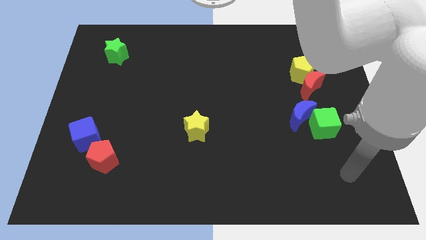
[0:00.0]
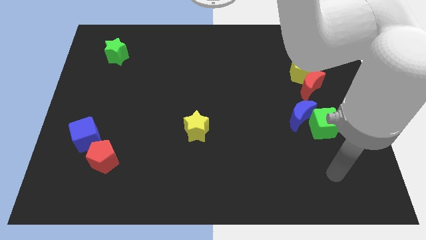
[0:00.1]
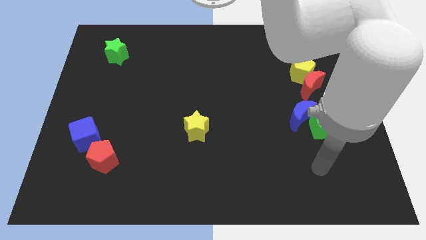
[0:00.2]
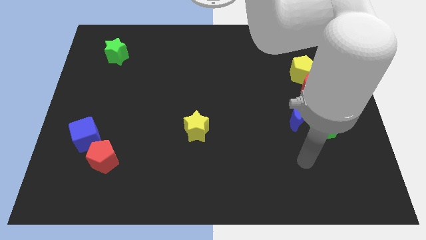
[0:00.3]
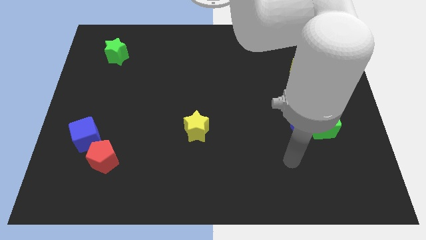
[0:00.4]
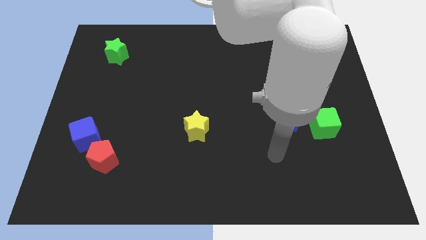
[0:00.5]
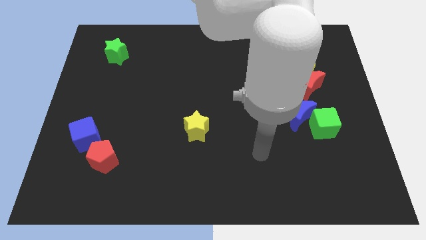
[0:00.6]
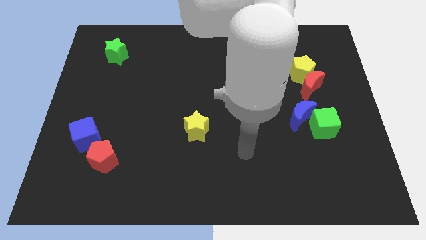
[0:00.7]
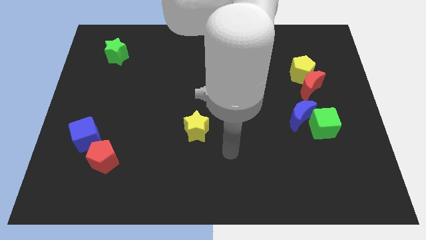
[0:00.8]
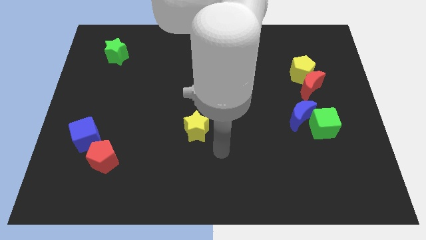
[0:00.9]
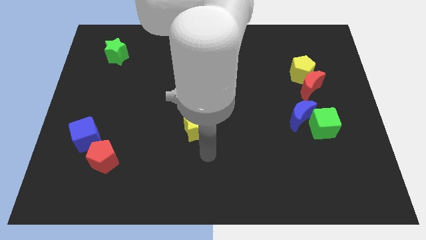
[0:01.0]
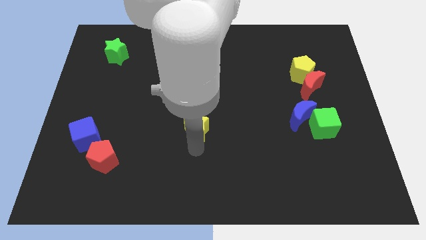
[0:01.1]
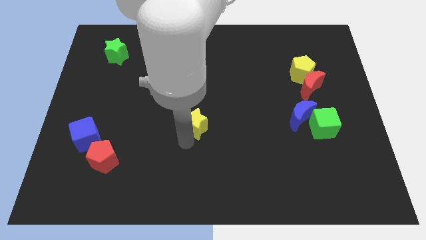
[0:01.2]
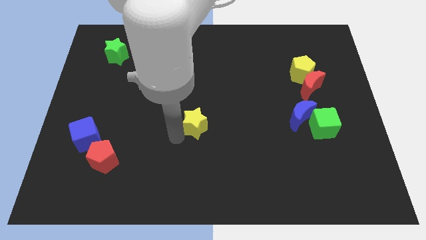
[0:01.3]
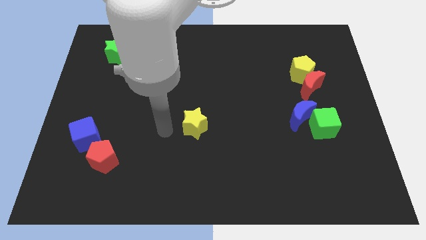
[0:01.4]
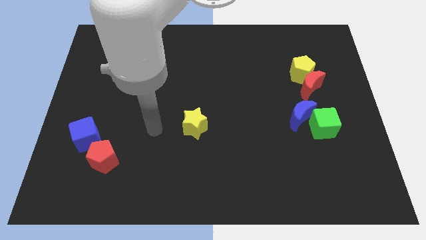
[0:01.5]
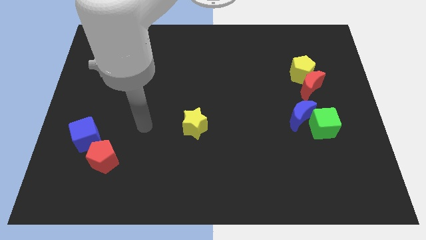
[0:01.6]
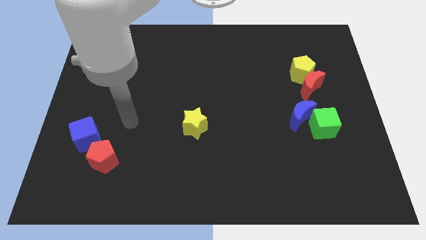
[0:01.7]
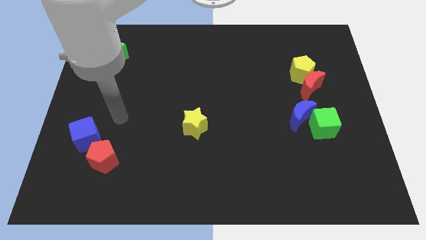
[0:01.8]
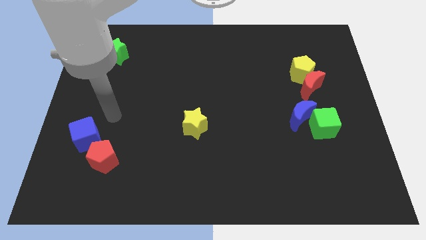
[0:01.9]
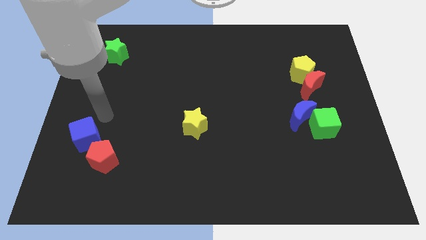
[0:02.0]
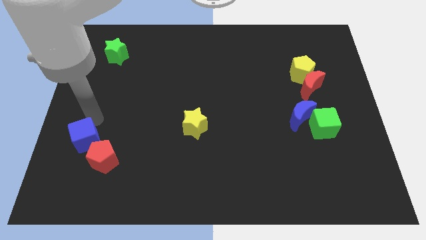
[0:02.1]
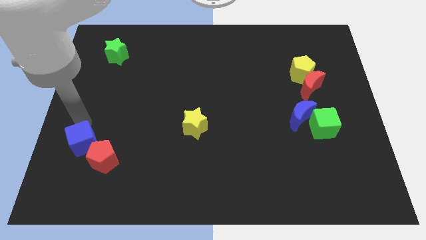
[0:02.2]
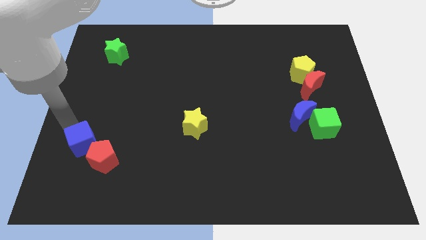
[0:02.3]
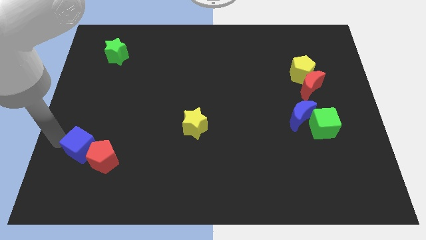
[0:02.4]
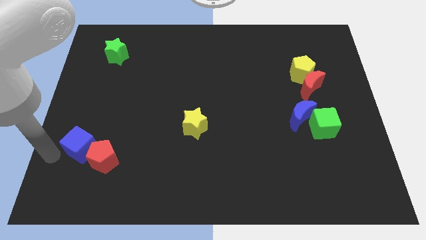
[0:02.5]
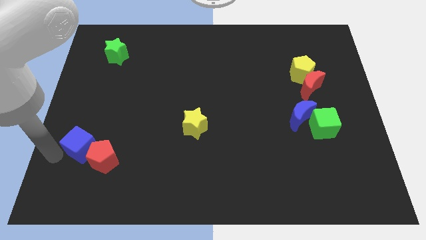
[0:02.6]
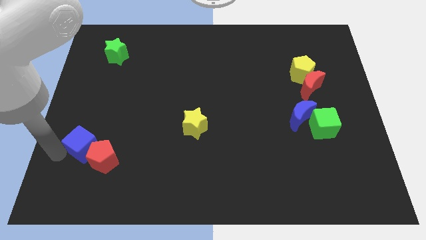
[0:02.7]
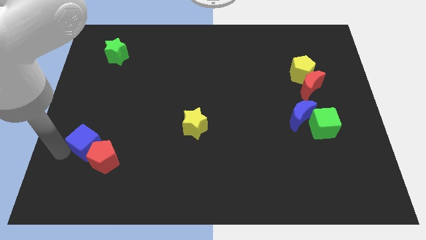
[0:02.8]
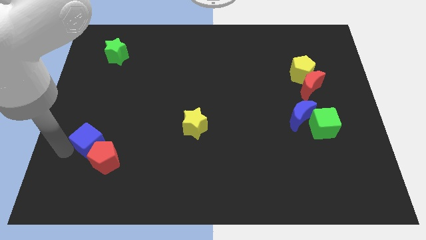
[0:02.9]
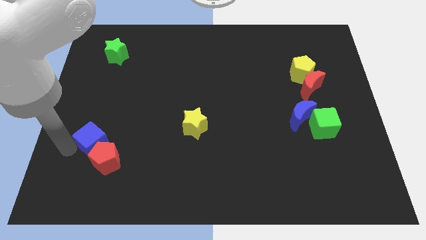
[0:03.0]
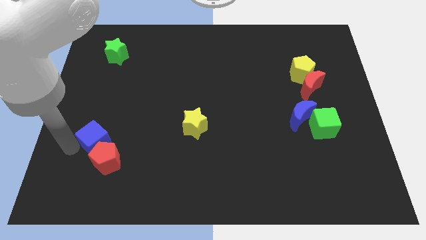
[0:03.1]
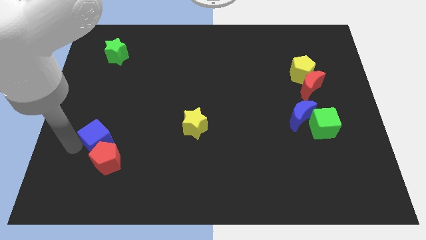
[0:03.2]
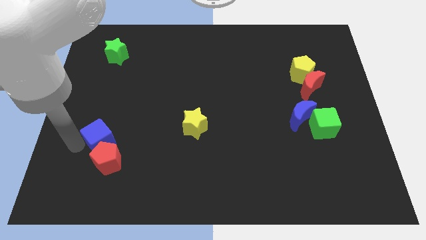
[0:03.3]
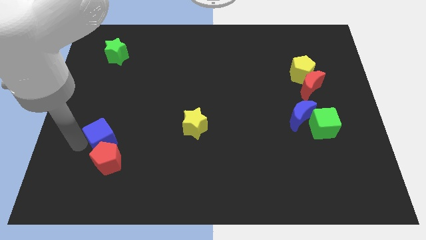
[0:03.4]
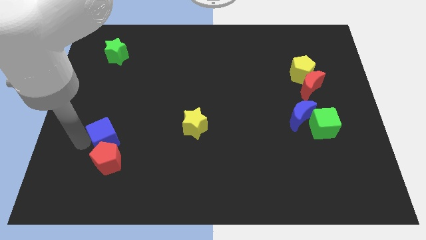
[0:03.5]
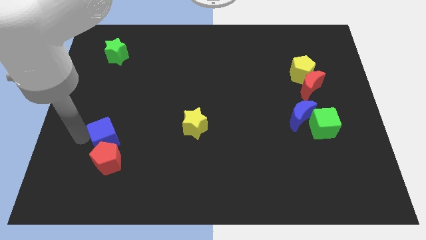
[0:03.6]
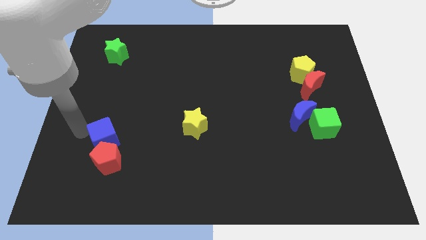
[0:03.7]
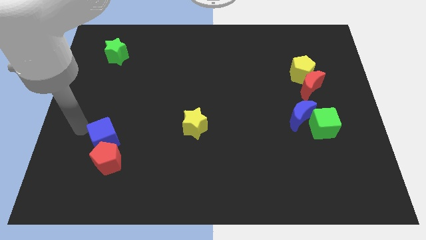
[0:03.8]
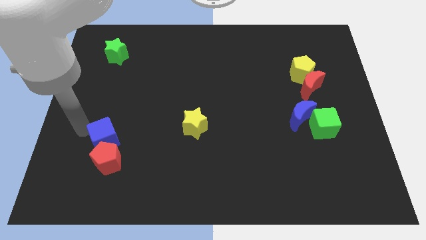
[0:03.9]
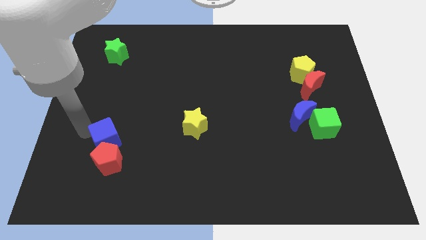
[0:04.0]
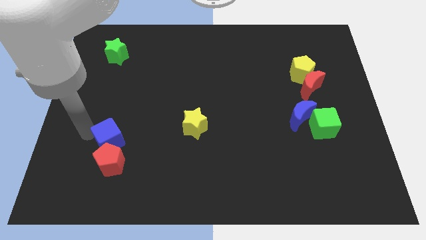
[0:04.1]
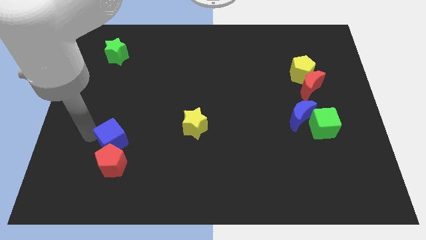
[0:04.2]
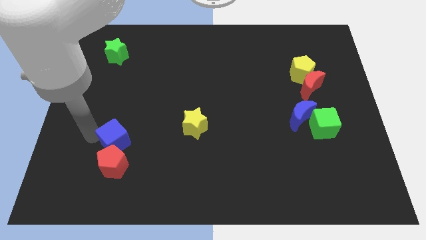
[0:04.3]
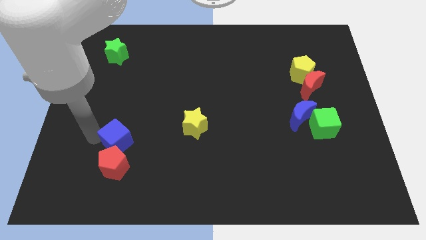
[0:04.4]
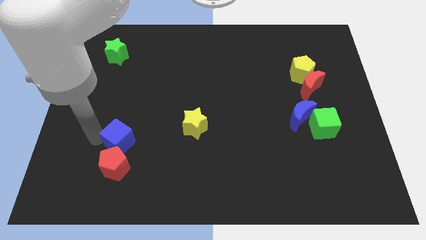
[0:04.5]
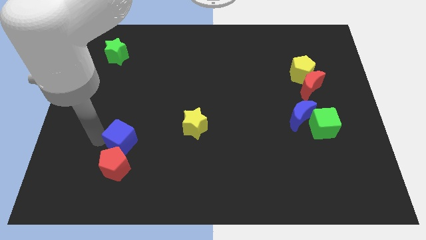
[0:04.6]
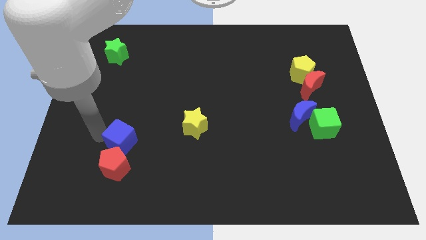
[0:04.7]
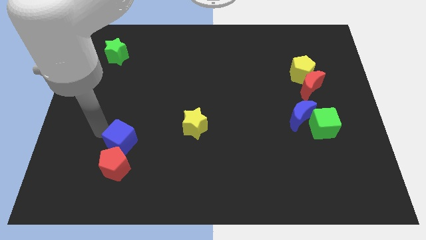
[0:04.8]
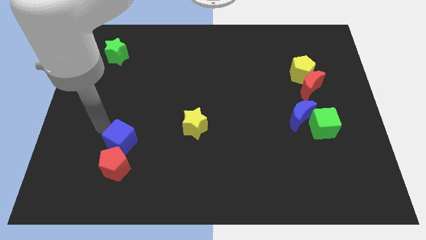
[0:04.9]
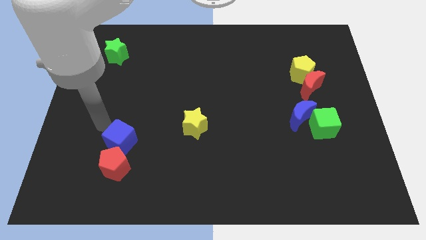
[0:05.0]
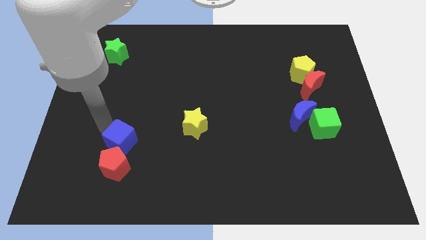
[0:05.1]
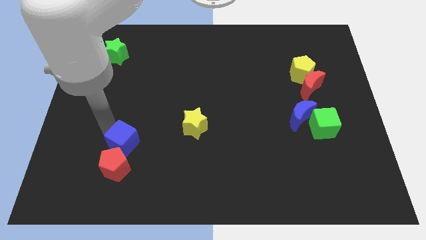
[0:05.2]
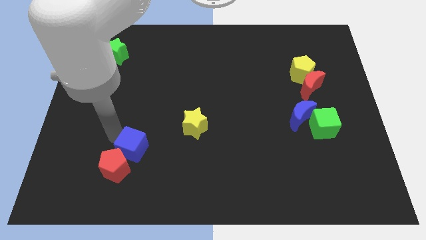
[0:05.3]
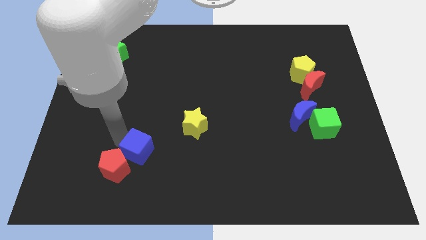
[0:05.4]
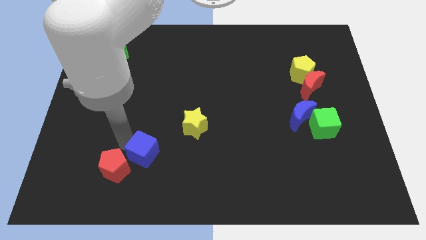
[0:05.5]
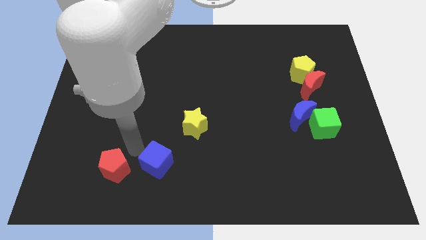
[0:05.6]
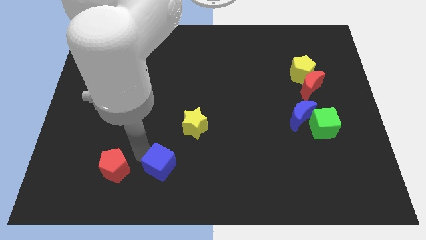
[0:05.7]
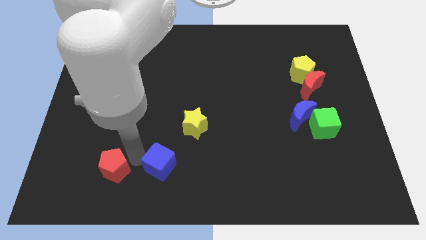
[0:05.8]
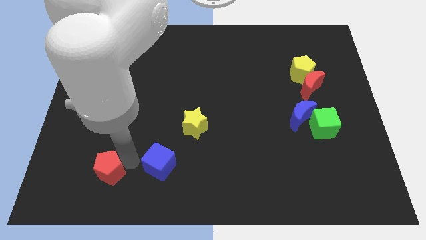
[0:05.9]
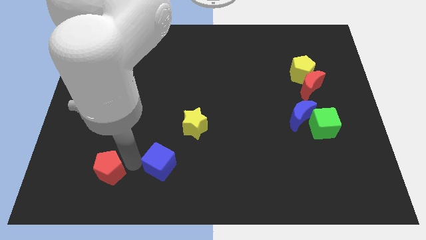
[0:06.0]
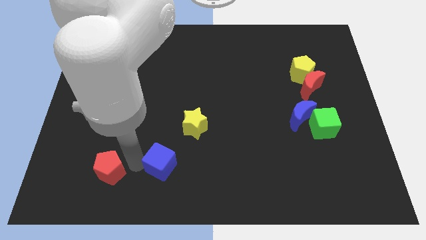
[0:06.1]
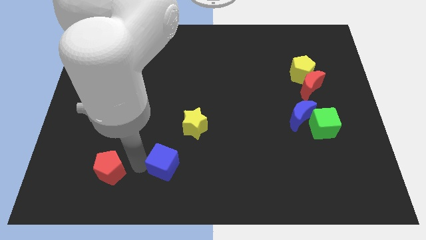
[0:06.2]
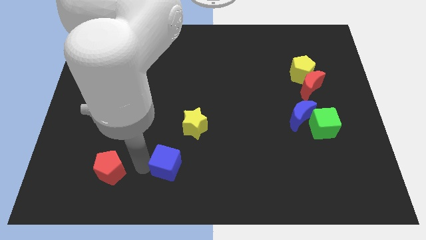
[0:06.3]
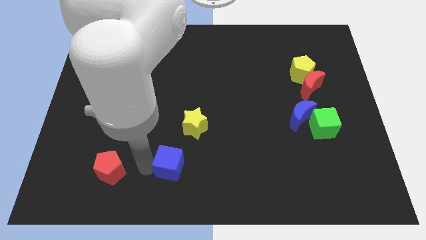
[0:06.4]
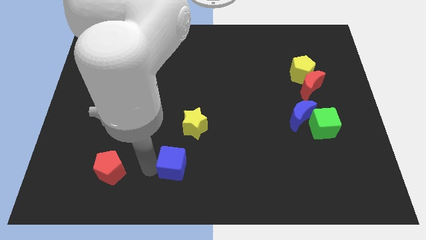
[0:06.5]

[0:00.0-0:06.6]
slide the blue cube below the yellow star
